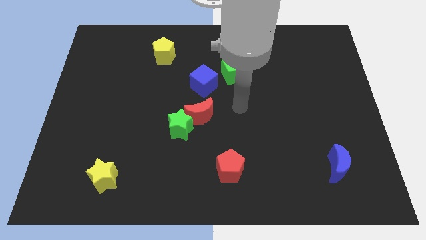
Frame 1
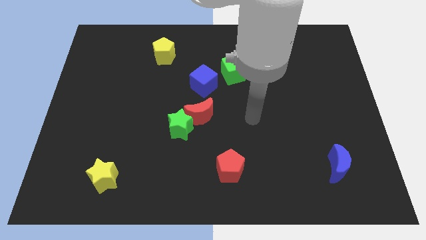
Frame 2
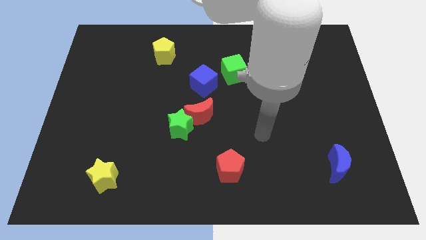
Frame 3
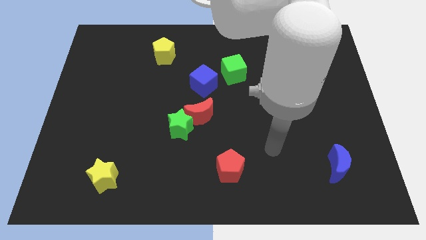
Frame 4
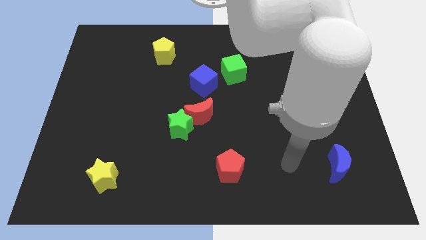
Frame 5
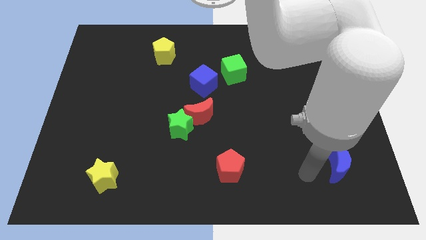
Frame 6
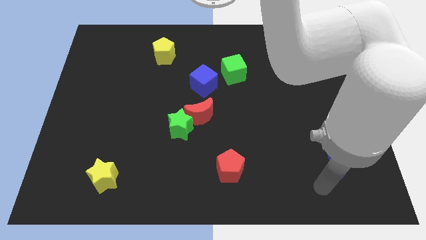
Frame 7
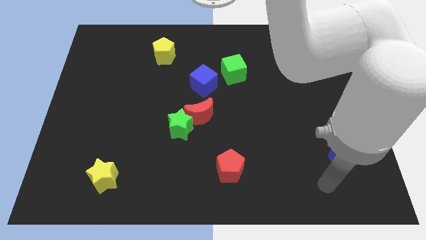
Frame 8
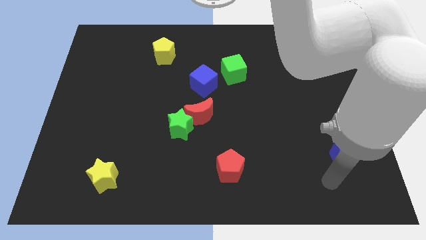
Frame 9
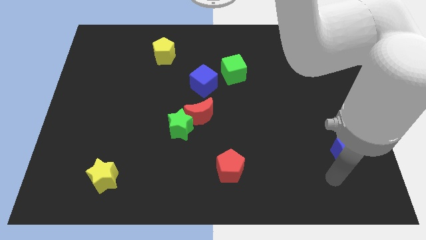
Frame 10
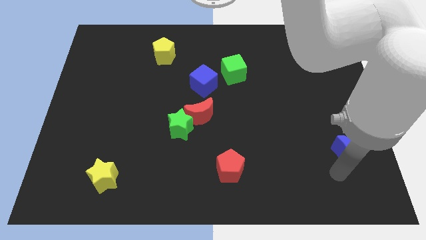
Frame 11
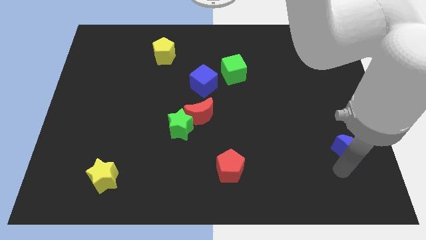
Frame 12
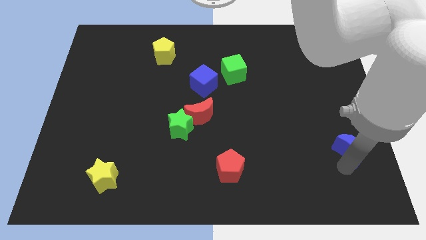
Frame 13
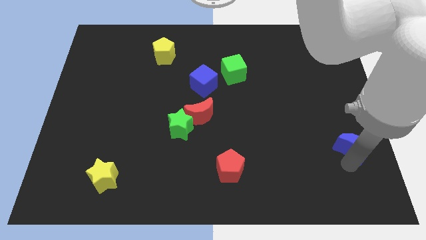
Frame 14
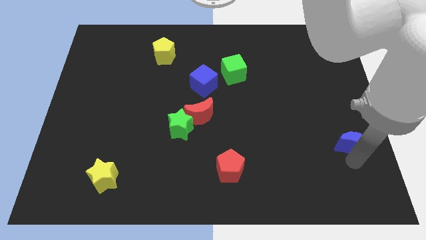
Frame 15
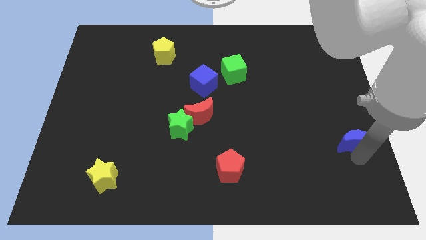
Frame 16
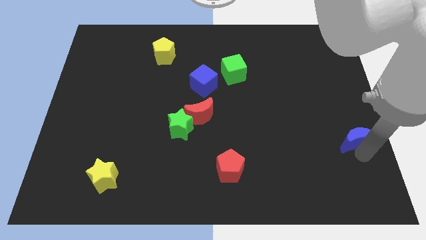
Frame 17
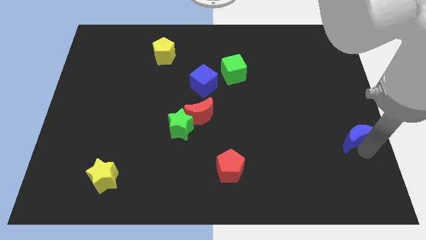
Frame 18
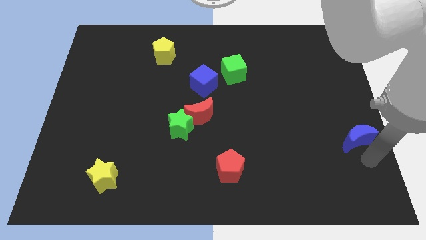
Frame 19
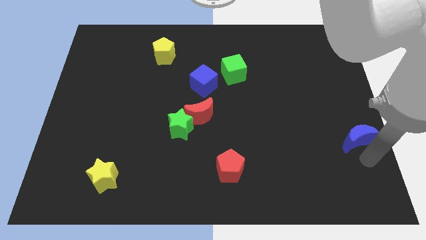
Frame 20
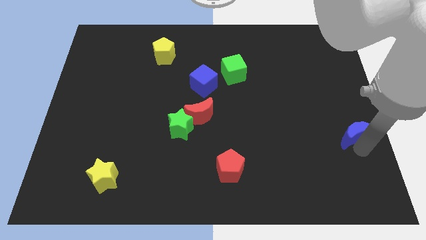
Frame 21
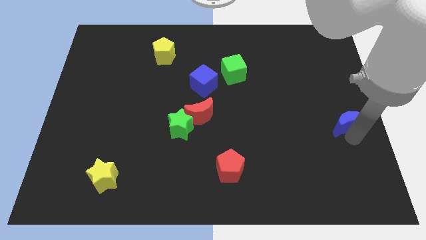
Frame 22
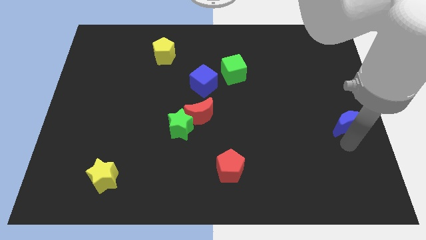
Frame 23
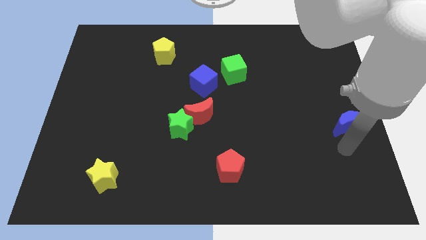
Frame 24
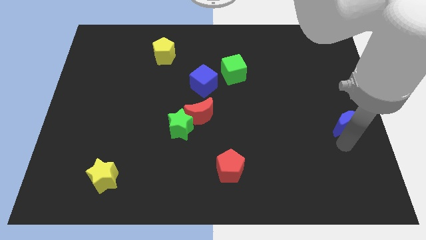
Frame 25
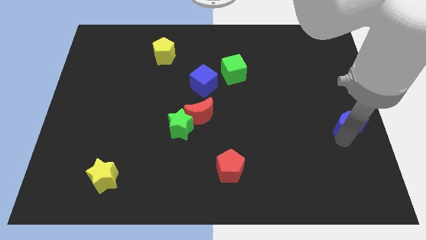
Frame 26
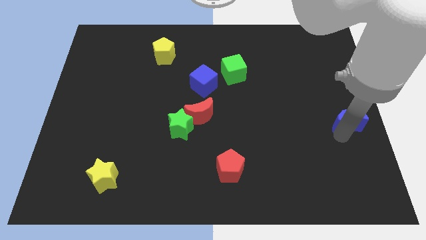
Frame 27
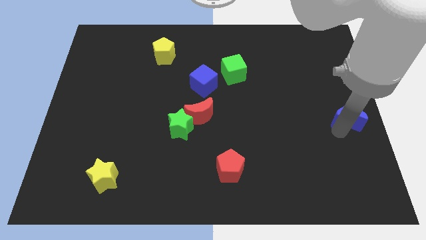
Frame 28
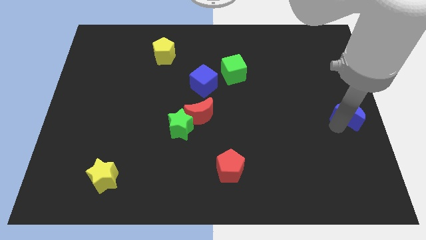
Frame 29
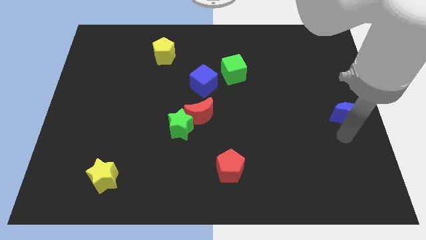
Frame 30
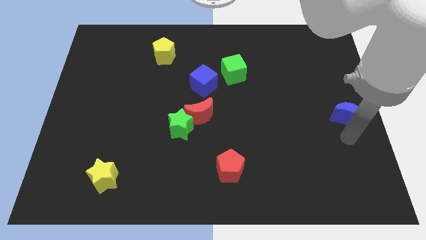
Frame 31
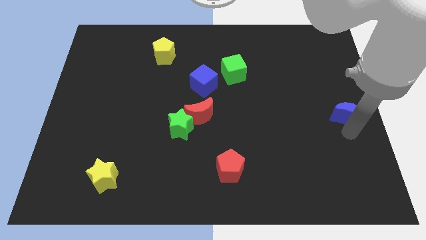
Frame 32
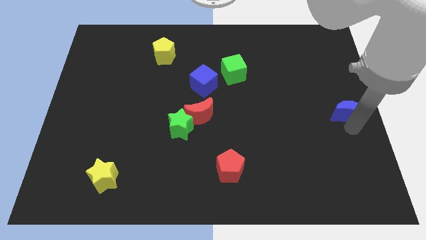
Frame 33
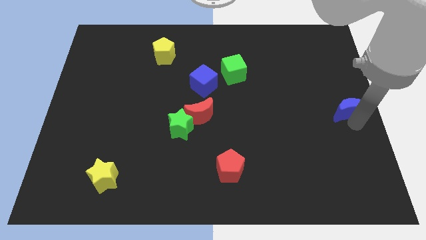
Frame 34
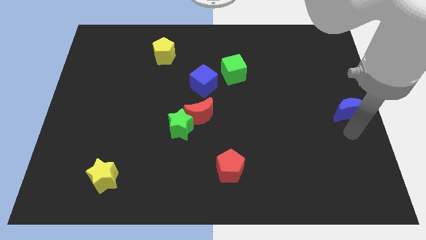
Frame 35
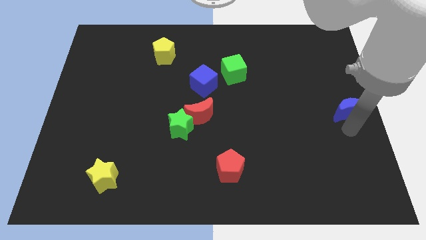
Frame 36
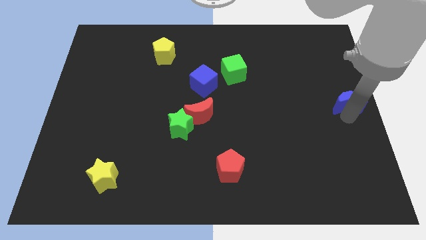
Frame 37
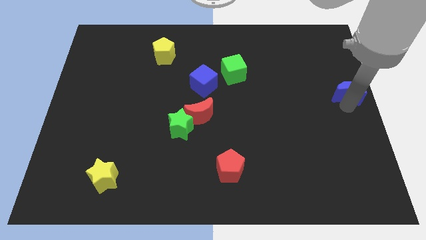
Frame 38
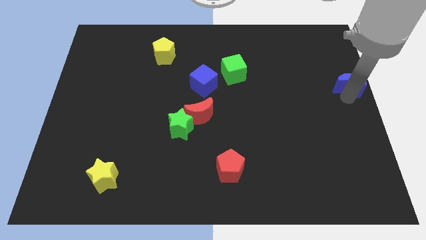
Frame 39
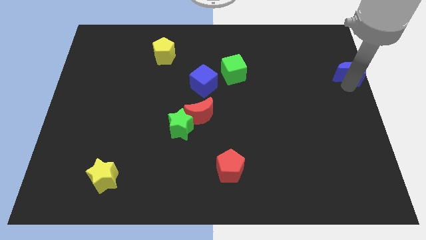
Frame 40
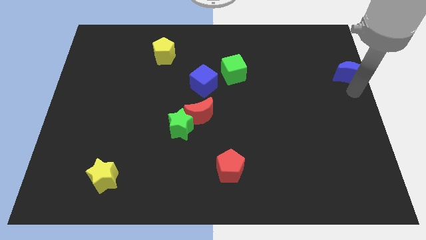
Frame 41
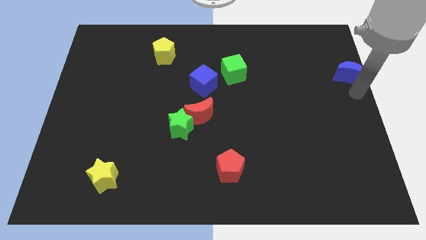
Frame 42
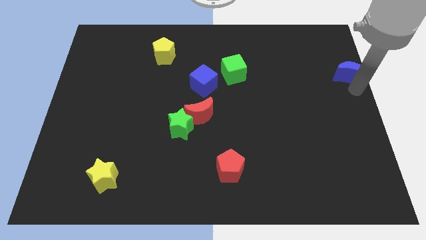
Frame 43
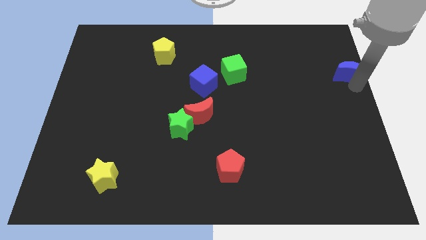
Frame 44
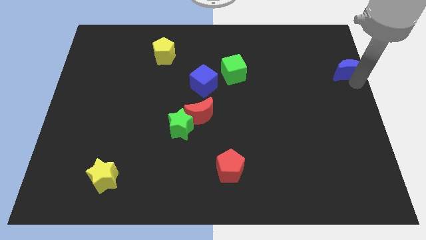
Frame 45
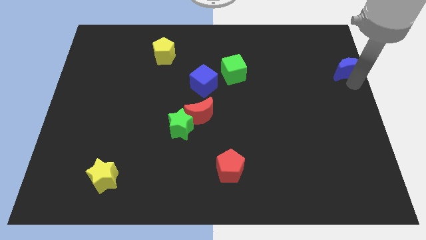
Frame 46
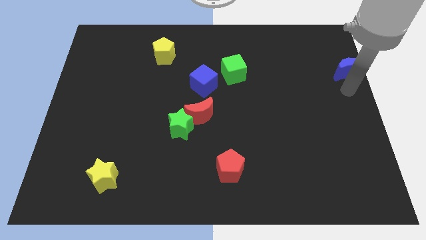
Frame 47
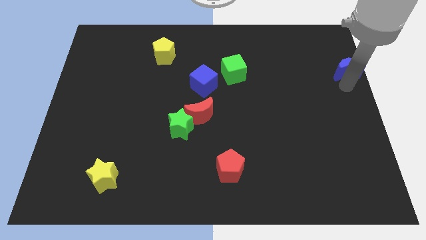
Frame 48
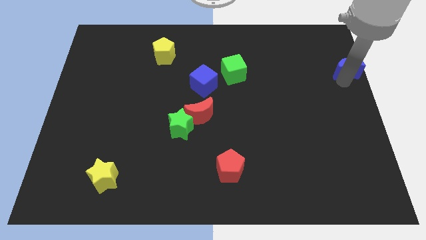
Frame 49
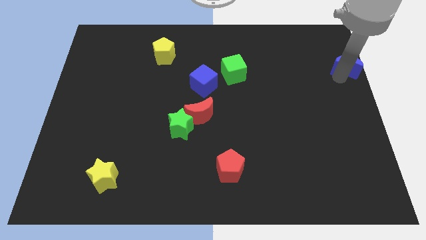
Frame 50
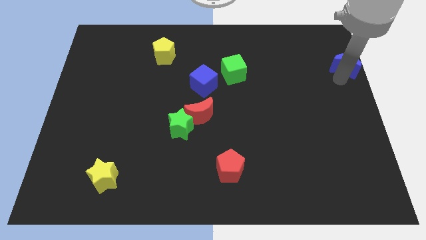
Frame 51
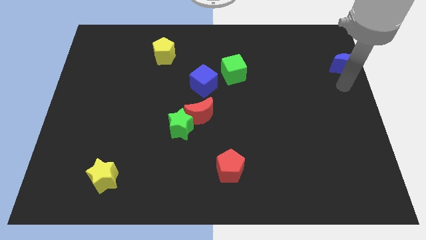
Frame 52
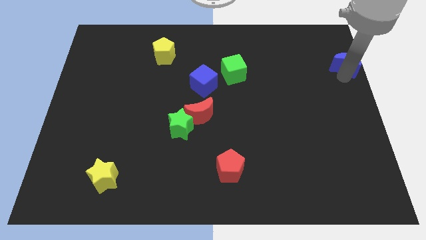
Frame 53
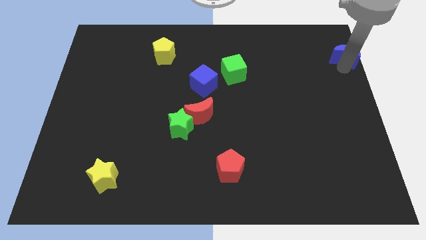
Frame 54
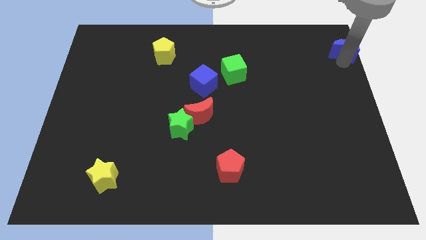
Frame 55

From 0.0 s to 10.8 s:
move the blue moon to the top right
